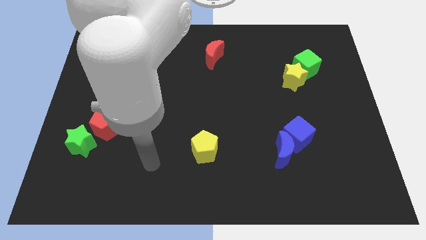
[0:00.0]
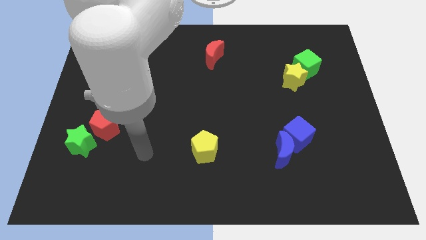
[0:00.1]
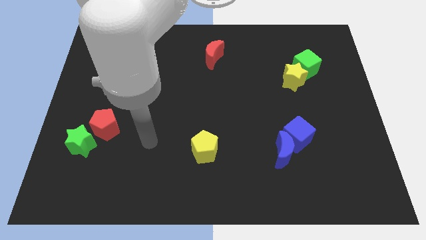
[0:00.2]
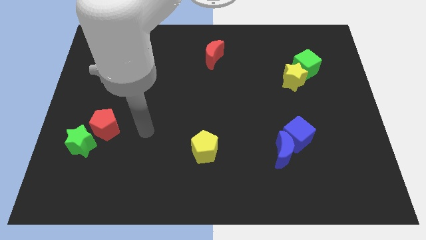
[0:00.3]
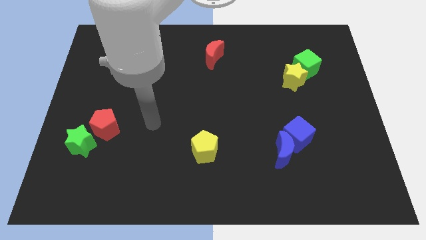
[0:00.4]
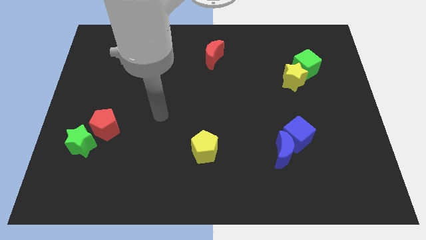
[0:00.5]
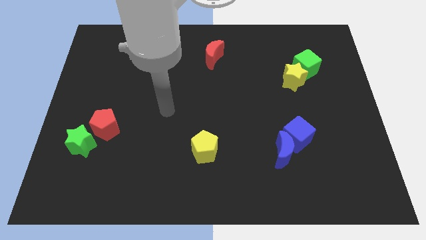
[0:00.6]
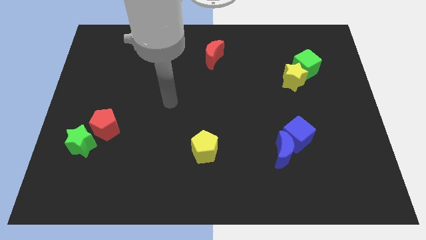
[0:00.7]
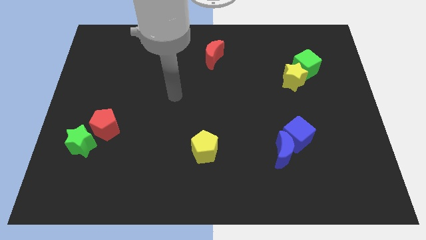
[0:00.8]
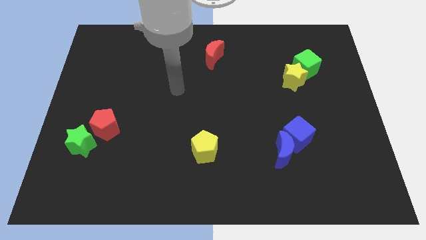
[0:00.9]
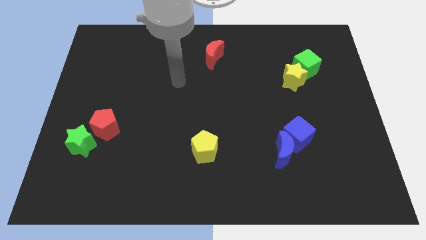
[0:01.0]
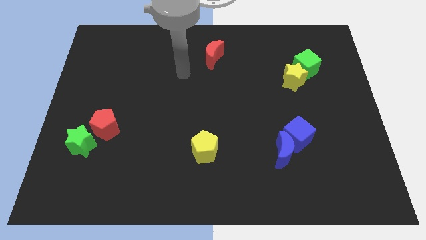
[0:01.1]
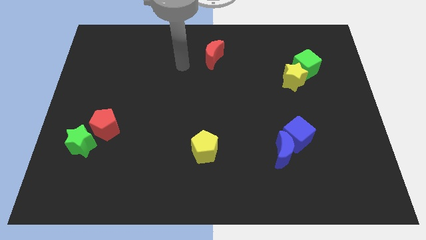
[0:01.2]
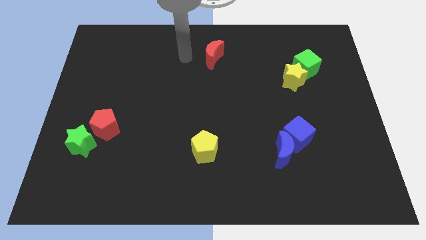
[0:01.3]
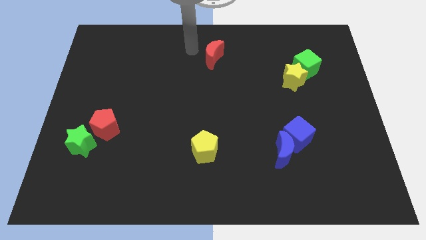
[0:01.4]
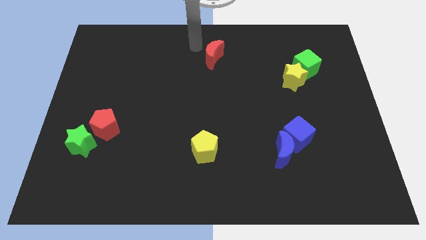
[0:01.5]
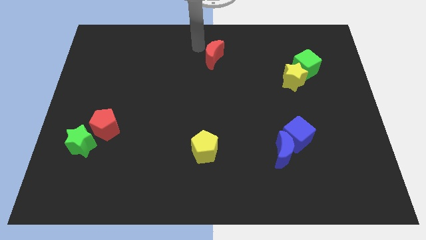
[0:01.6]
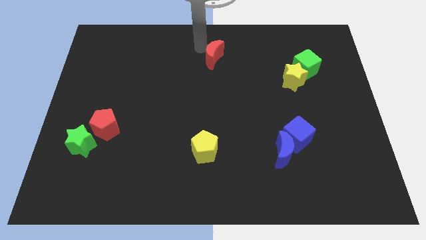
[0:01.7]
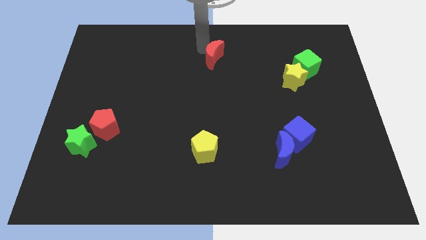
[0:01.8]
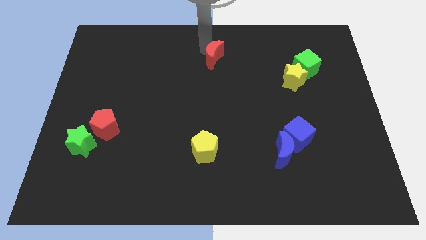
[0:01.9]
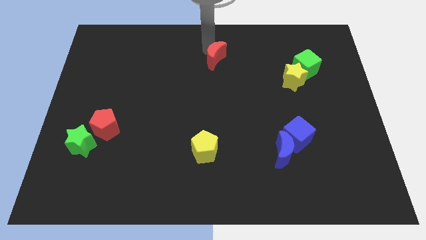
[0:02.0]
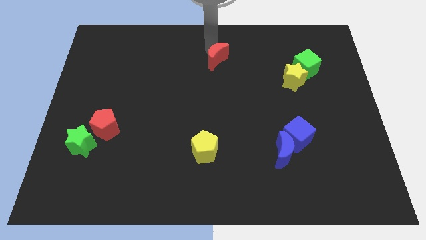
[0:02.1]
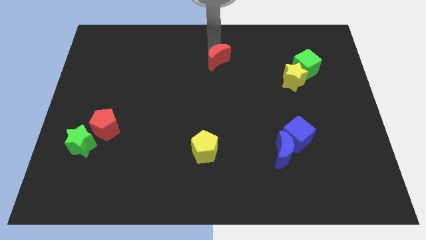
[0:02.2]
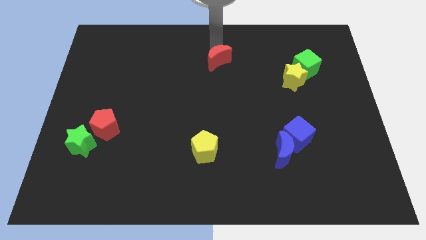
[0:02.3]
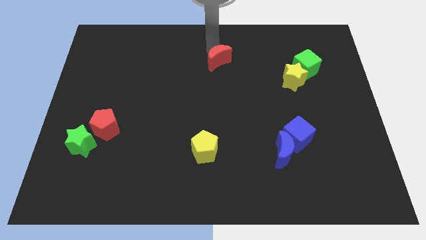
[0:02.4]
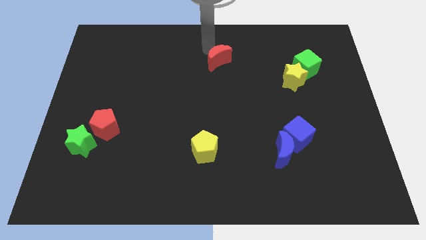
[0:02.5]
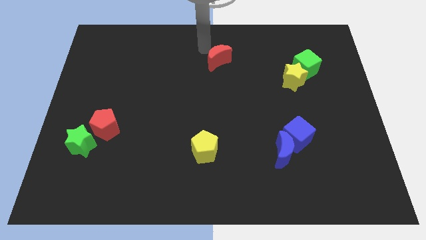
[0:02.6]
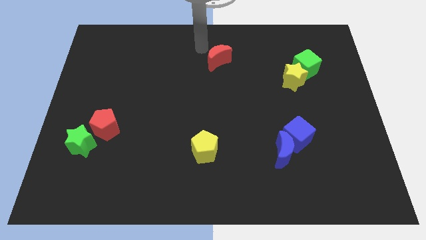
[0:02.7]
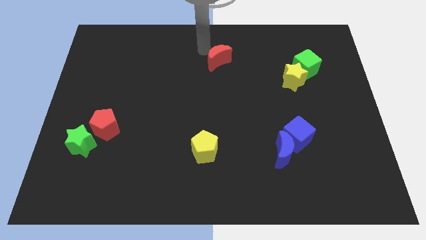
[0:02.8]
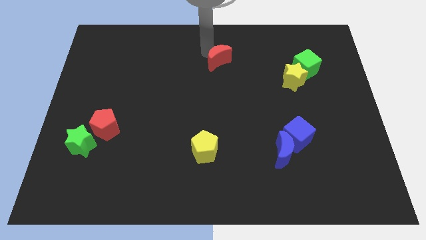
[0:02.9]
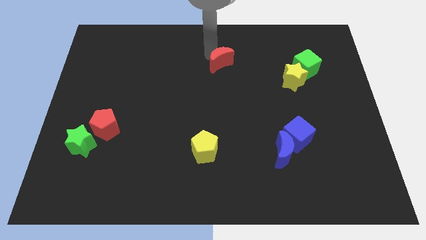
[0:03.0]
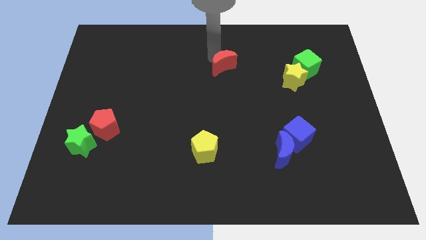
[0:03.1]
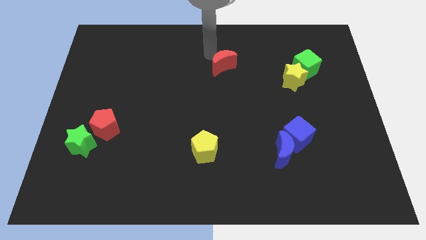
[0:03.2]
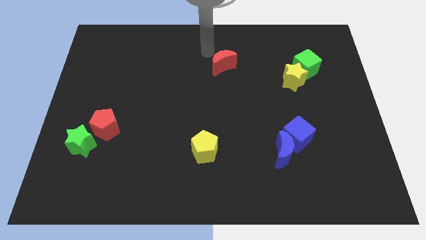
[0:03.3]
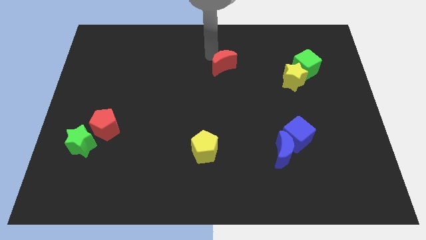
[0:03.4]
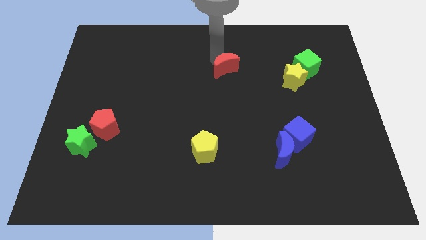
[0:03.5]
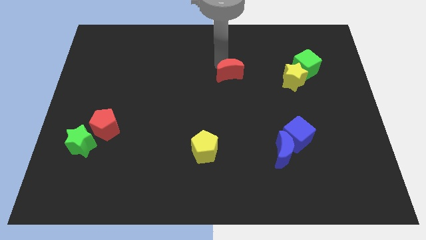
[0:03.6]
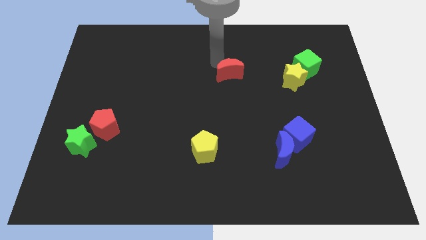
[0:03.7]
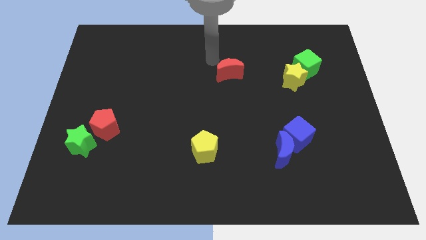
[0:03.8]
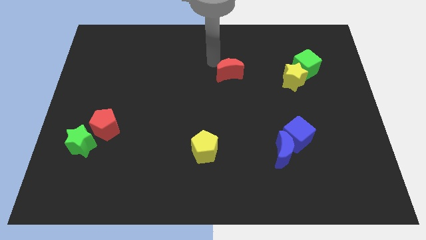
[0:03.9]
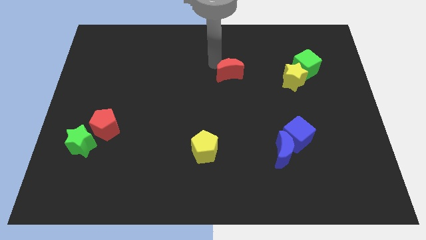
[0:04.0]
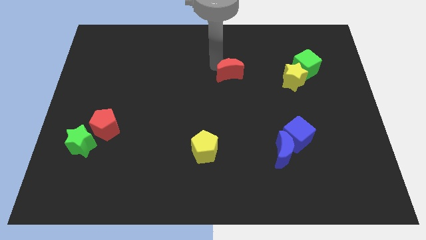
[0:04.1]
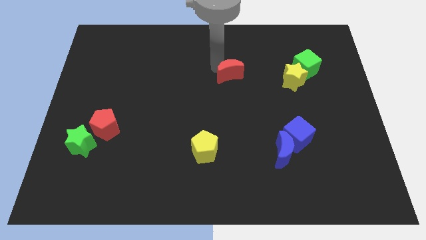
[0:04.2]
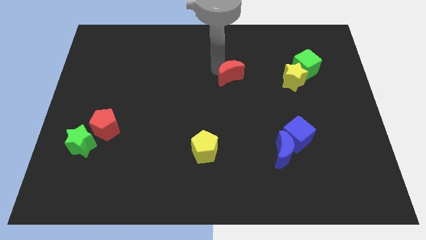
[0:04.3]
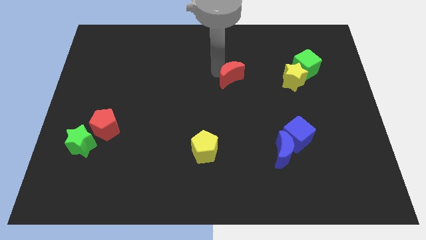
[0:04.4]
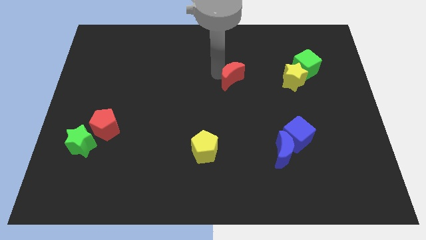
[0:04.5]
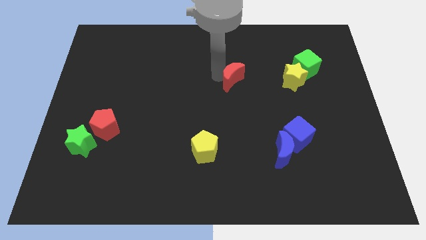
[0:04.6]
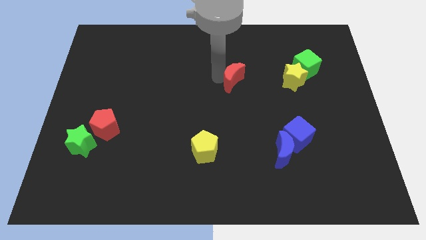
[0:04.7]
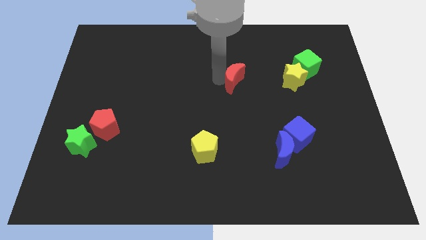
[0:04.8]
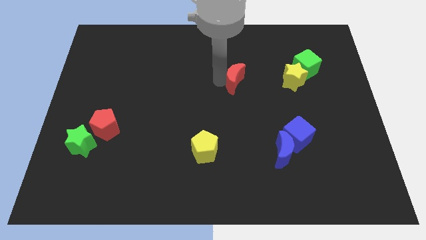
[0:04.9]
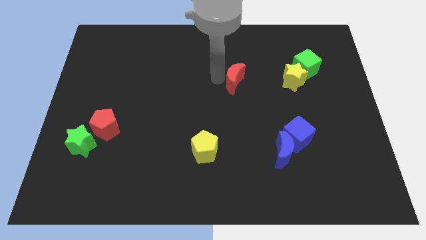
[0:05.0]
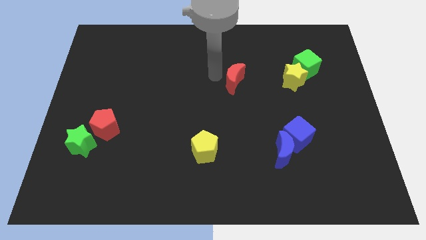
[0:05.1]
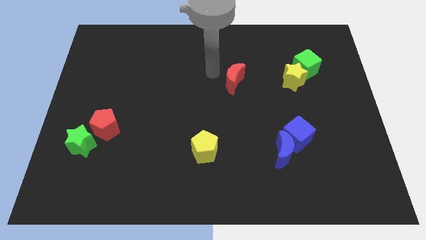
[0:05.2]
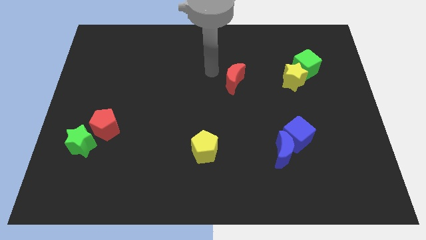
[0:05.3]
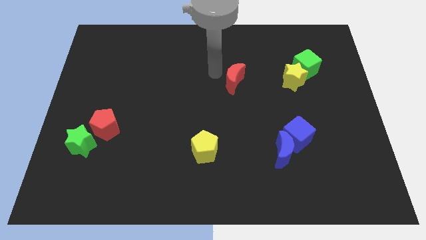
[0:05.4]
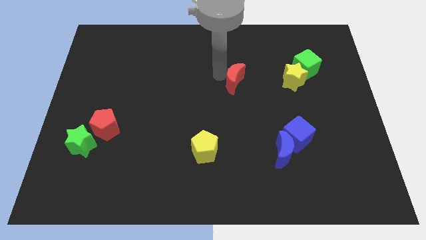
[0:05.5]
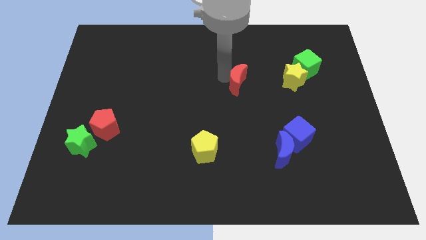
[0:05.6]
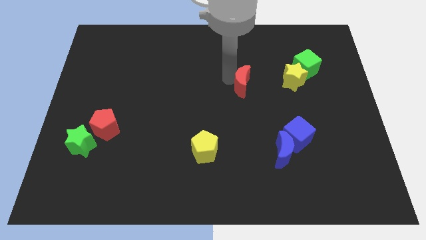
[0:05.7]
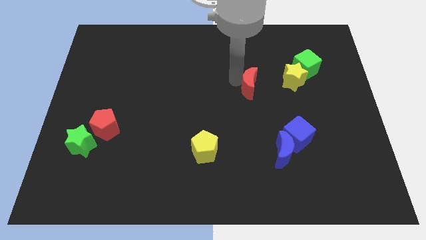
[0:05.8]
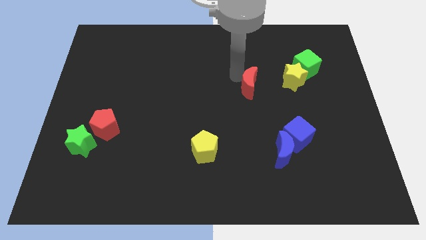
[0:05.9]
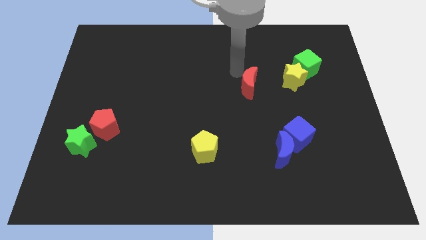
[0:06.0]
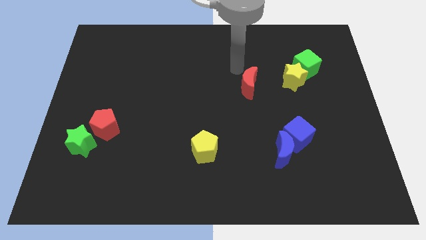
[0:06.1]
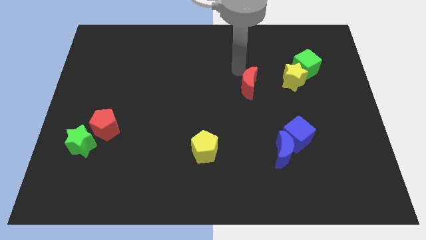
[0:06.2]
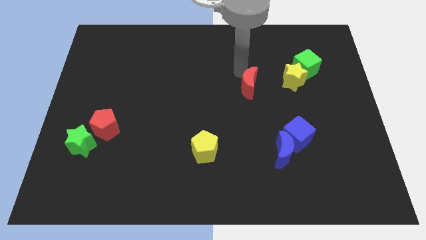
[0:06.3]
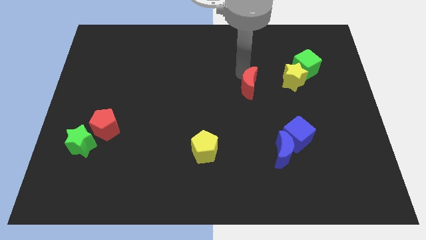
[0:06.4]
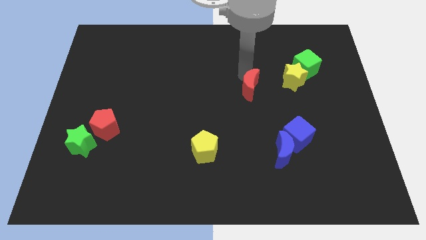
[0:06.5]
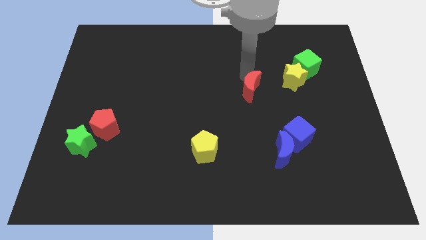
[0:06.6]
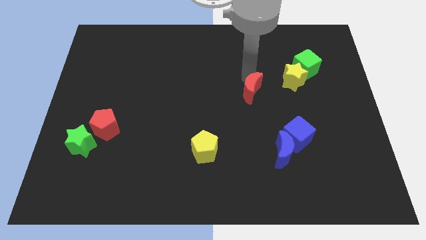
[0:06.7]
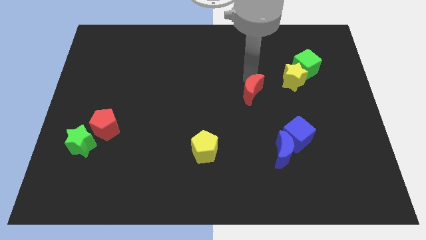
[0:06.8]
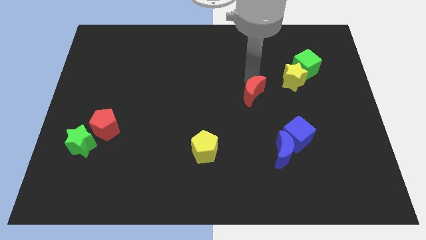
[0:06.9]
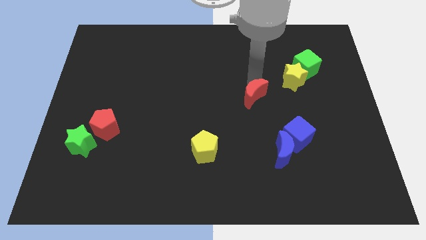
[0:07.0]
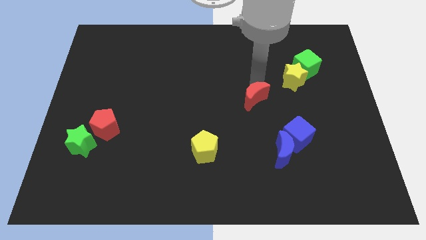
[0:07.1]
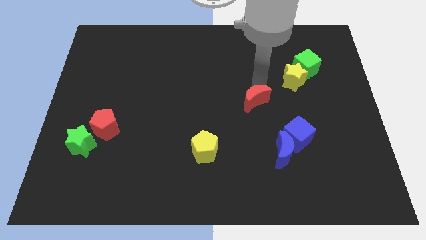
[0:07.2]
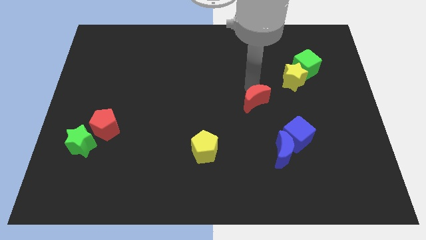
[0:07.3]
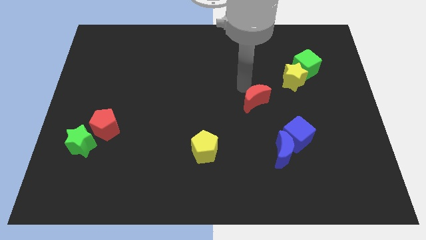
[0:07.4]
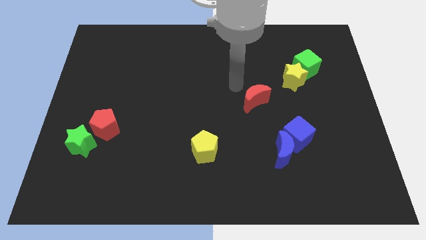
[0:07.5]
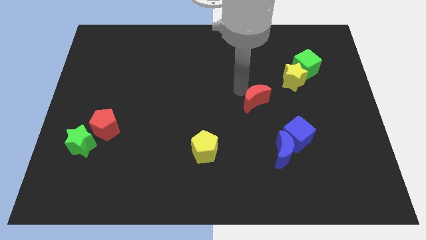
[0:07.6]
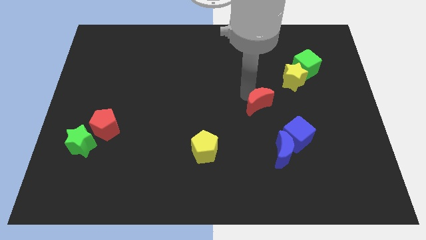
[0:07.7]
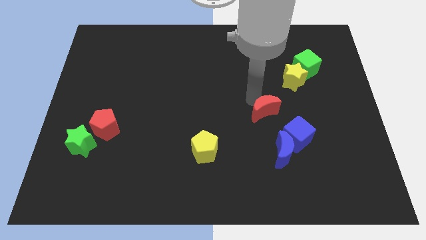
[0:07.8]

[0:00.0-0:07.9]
push the red moon downwards and to the right

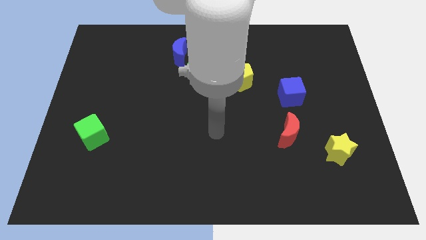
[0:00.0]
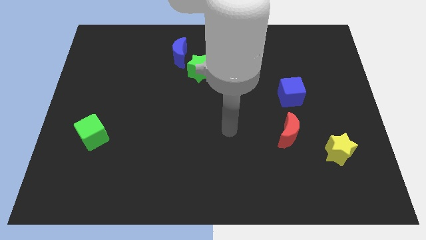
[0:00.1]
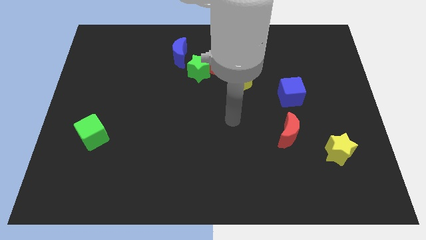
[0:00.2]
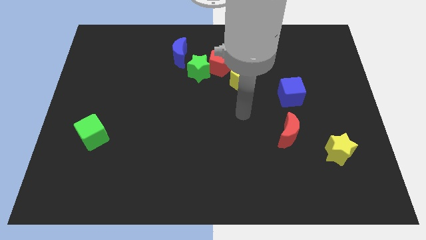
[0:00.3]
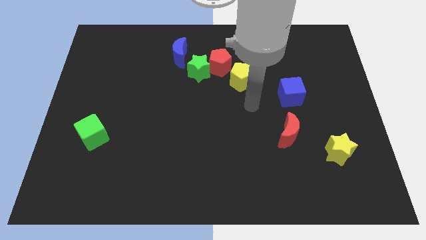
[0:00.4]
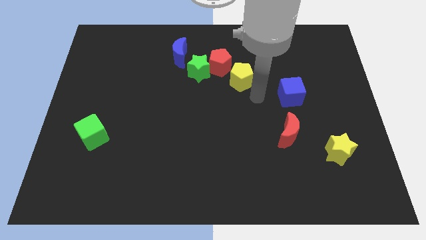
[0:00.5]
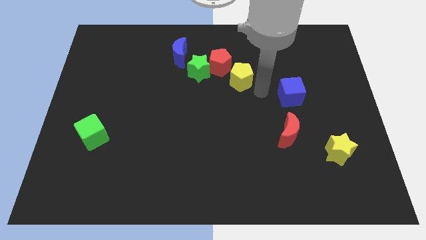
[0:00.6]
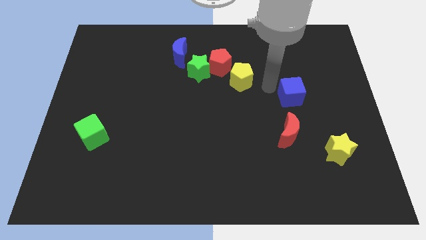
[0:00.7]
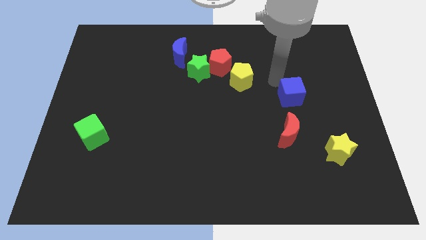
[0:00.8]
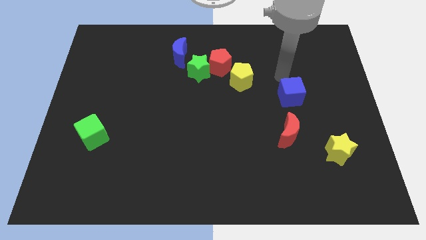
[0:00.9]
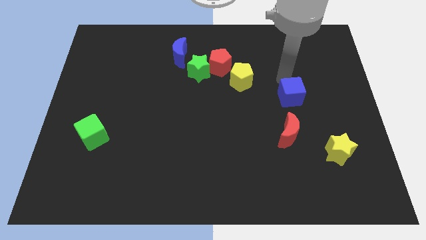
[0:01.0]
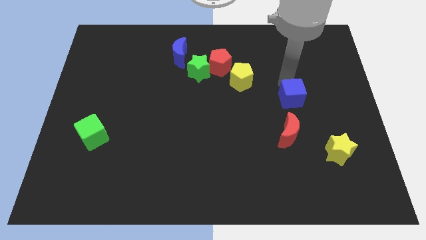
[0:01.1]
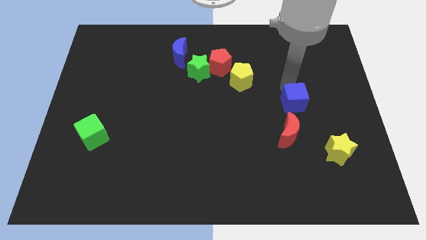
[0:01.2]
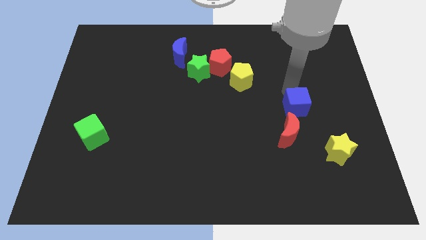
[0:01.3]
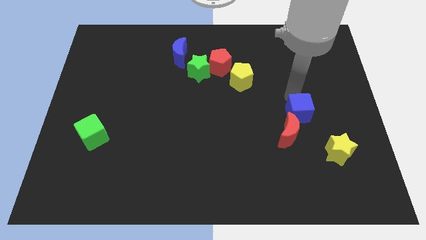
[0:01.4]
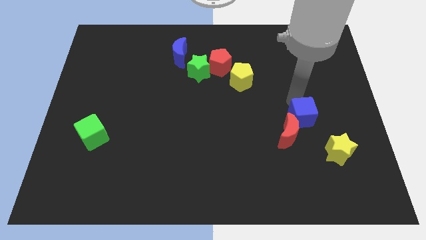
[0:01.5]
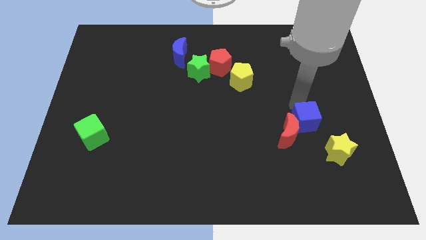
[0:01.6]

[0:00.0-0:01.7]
slightly slide the blue cube down
